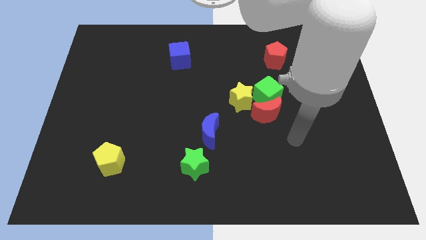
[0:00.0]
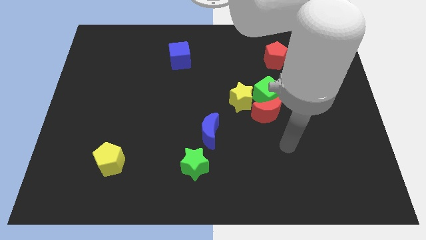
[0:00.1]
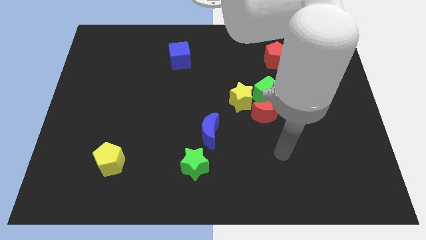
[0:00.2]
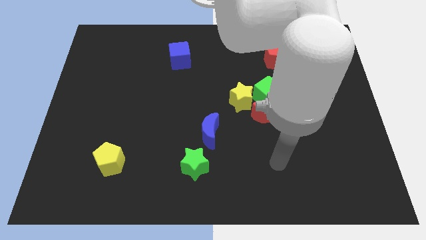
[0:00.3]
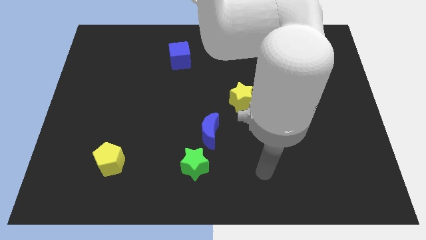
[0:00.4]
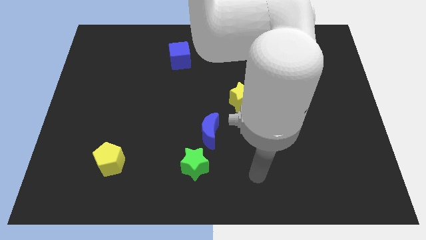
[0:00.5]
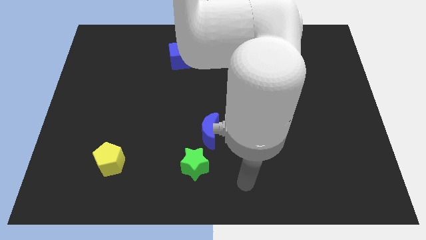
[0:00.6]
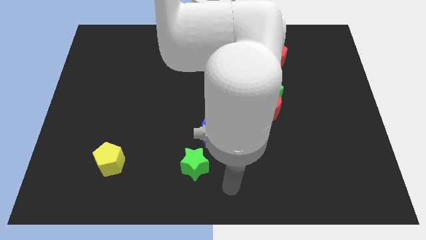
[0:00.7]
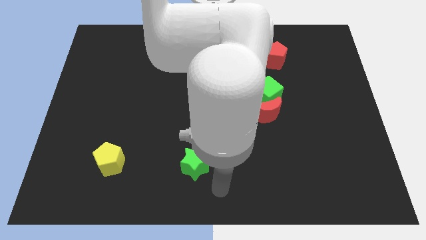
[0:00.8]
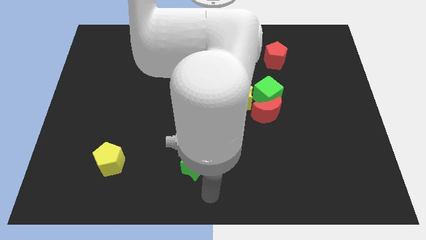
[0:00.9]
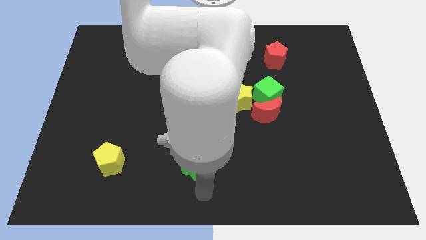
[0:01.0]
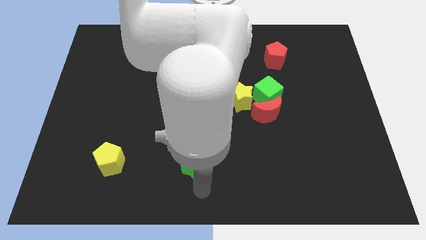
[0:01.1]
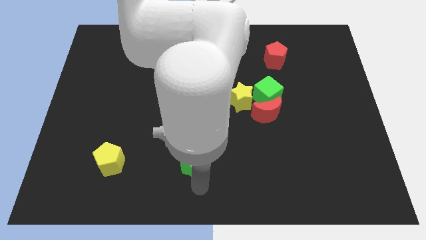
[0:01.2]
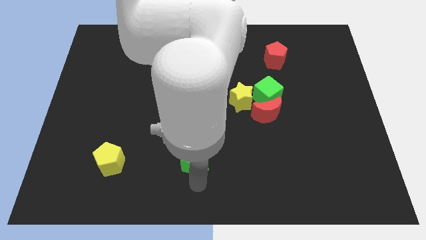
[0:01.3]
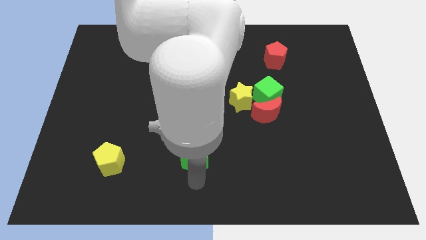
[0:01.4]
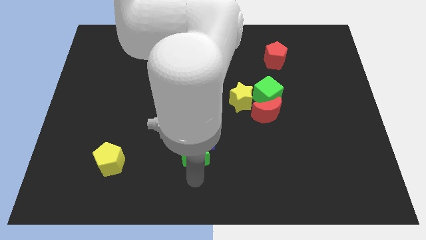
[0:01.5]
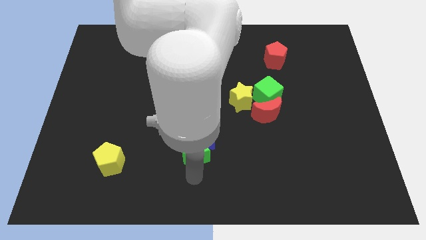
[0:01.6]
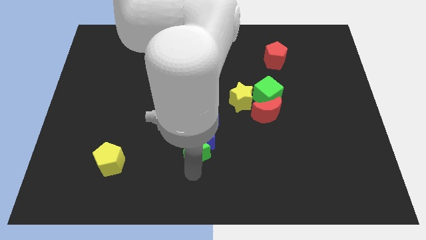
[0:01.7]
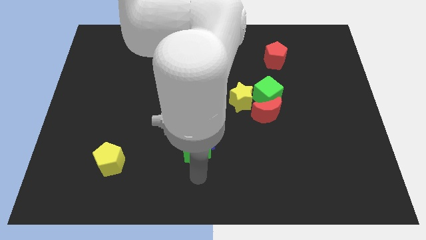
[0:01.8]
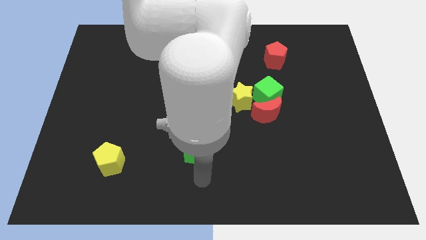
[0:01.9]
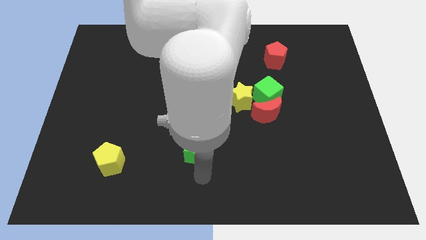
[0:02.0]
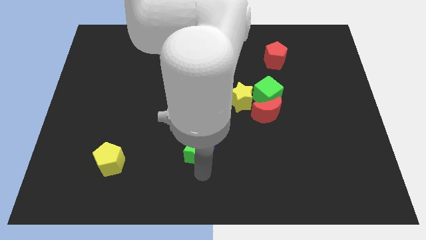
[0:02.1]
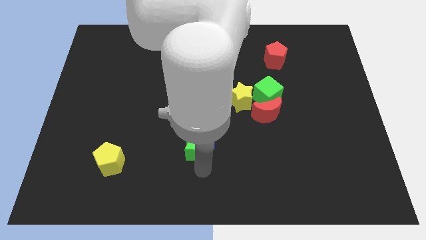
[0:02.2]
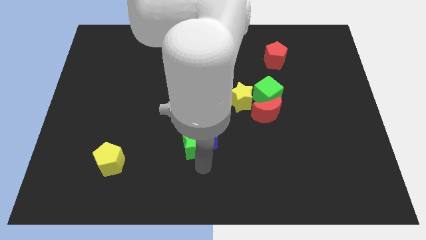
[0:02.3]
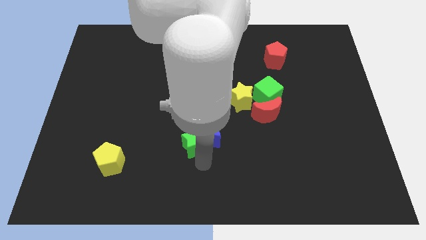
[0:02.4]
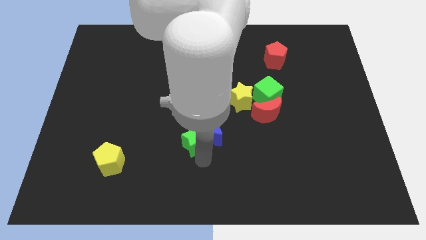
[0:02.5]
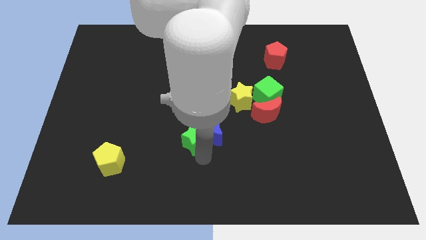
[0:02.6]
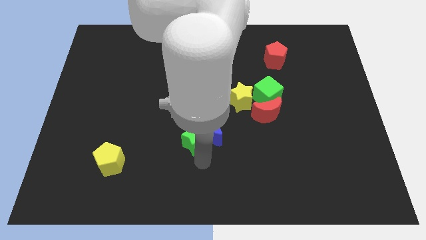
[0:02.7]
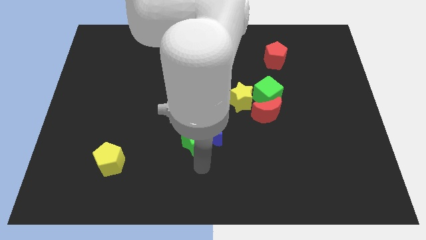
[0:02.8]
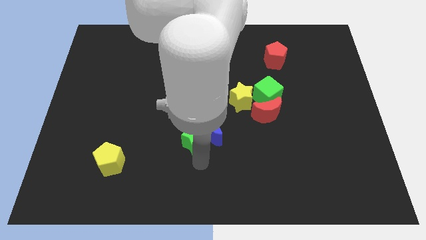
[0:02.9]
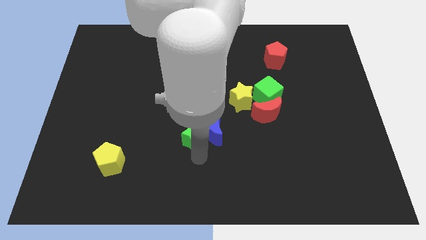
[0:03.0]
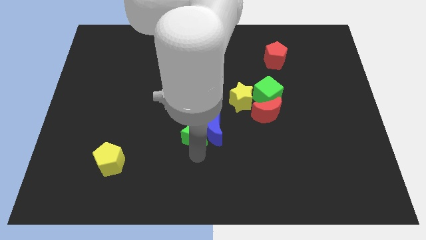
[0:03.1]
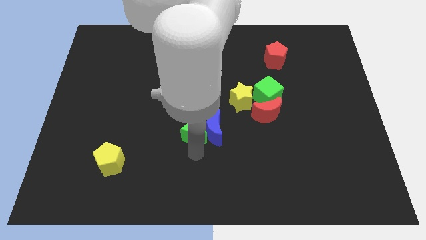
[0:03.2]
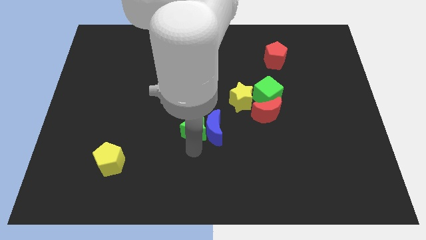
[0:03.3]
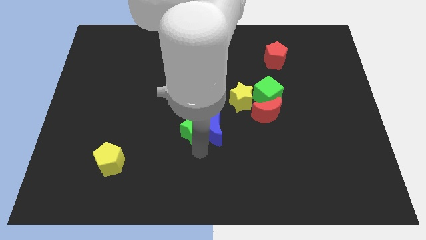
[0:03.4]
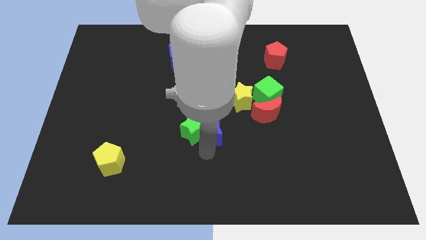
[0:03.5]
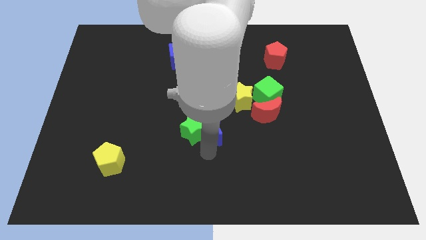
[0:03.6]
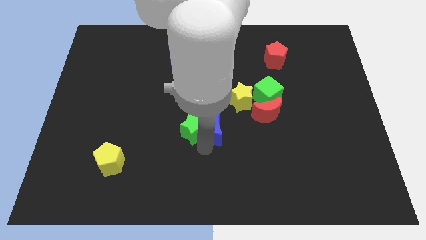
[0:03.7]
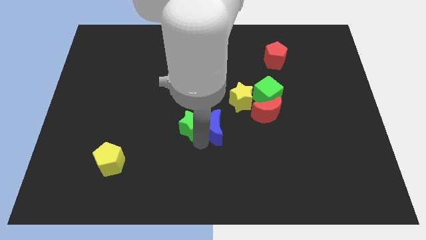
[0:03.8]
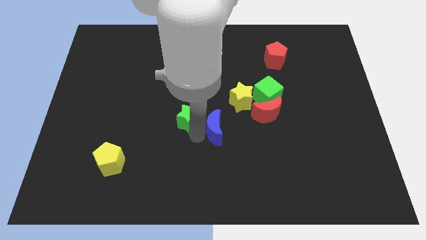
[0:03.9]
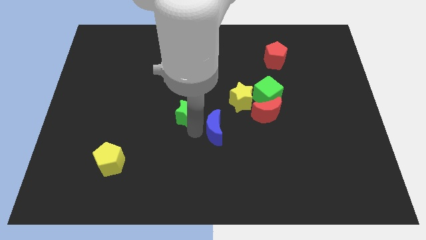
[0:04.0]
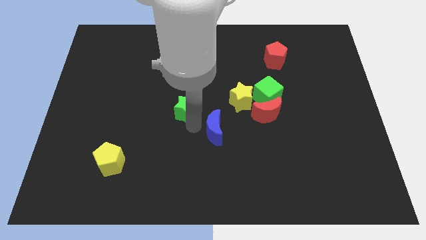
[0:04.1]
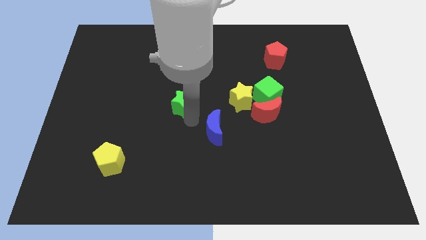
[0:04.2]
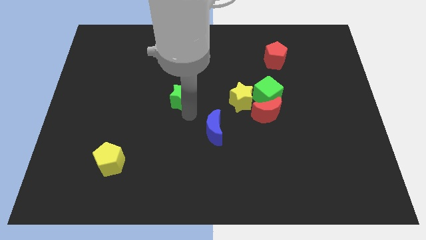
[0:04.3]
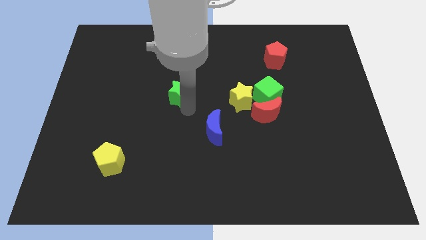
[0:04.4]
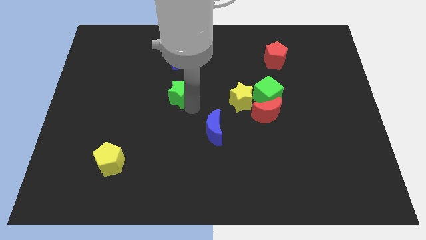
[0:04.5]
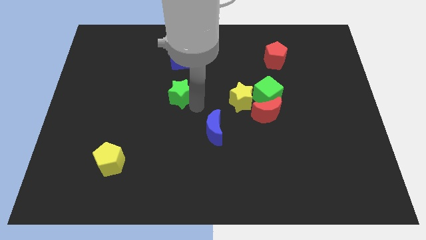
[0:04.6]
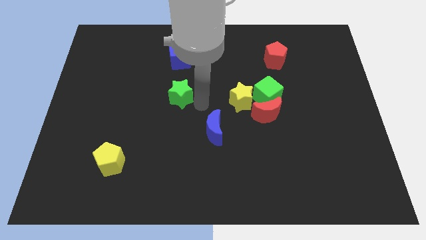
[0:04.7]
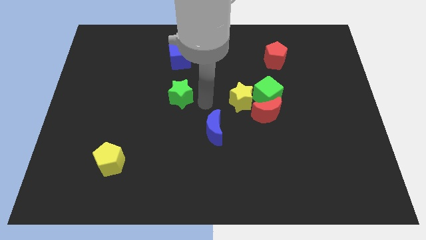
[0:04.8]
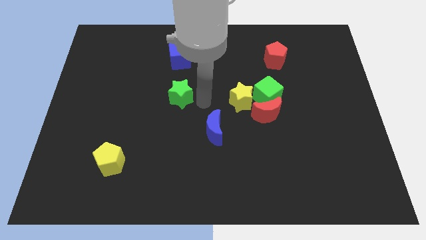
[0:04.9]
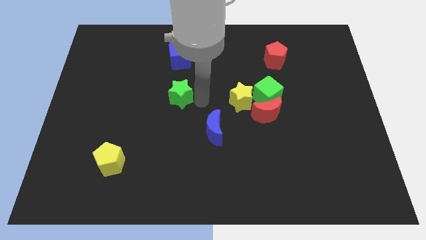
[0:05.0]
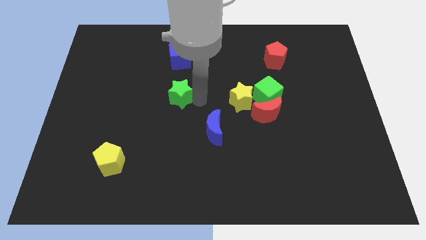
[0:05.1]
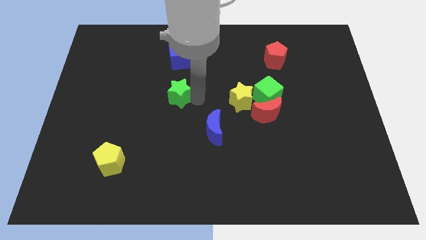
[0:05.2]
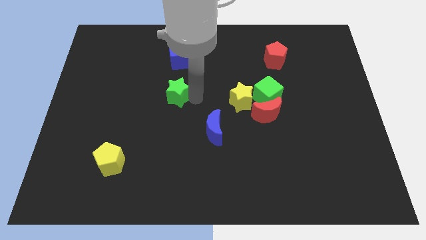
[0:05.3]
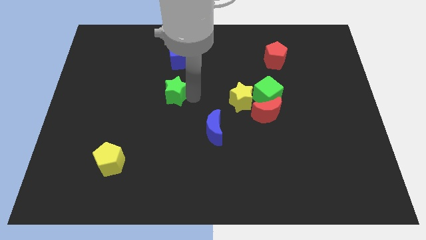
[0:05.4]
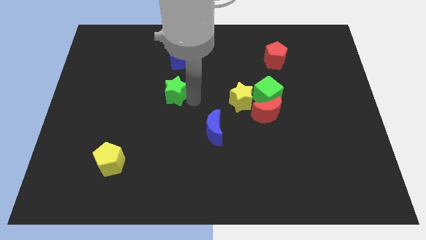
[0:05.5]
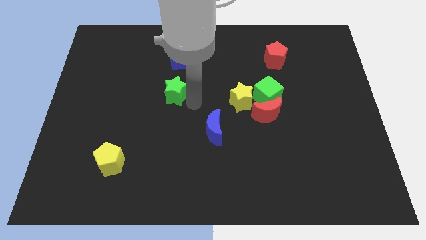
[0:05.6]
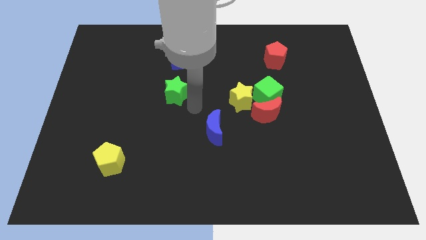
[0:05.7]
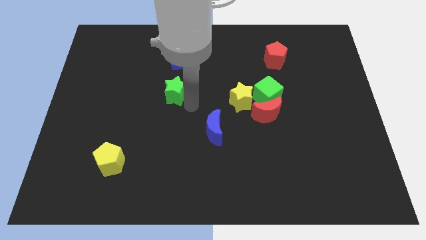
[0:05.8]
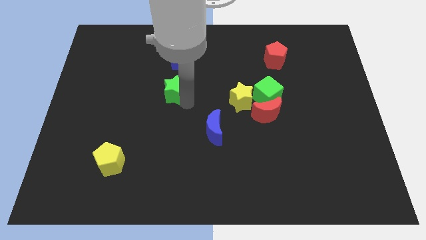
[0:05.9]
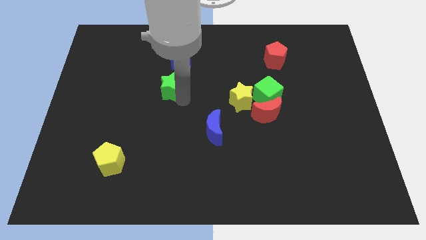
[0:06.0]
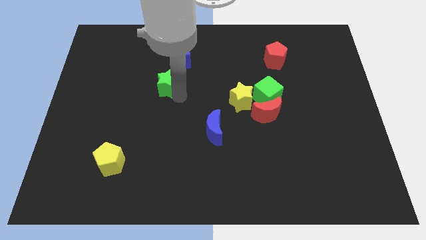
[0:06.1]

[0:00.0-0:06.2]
push the green star diagonally down and to the left of the blue cube
